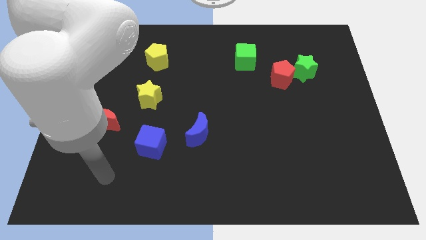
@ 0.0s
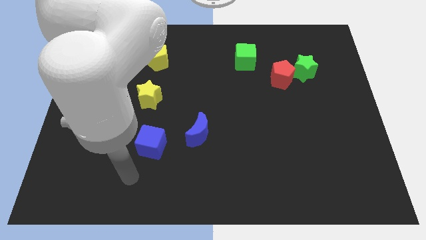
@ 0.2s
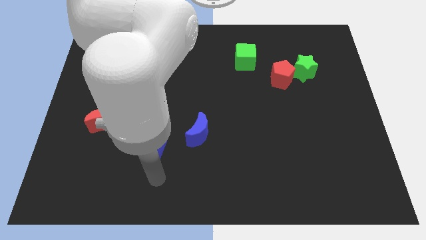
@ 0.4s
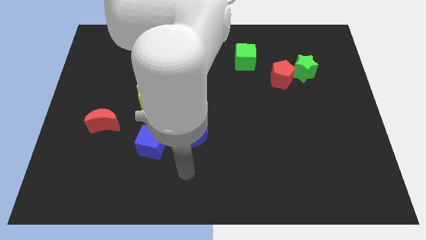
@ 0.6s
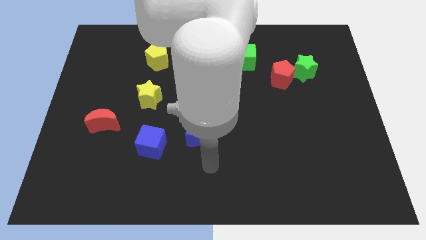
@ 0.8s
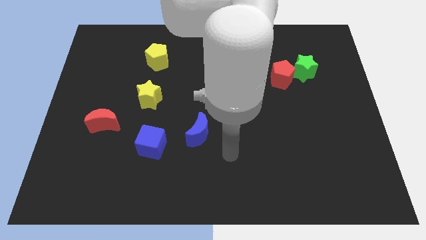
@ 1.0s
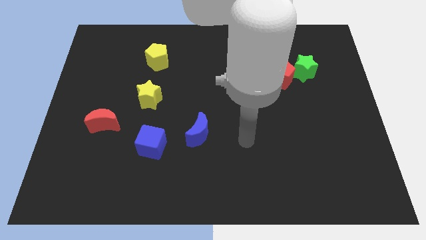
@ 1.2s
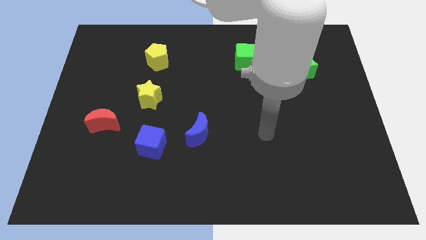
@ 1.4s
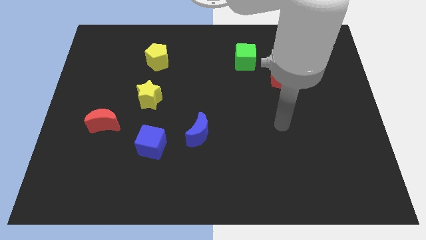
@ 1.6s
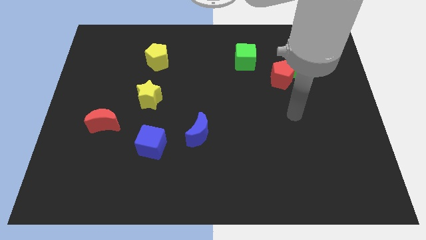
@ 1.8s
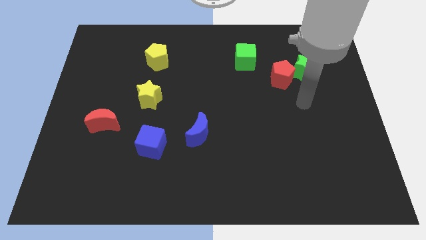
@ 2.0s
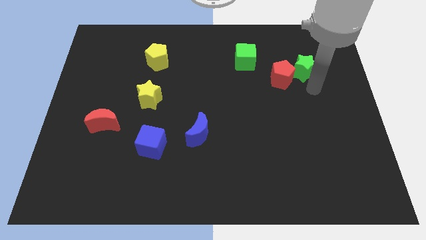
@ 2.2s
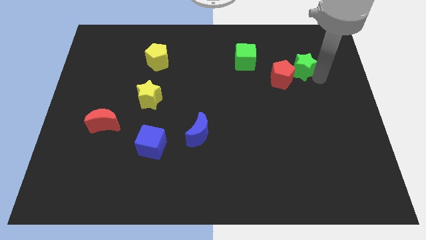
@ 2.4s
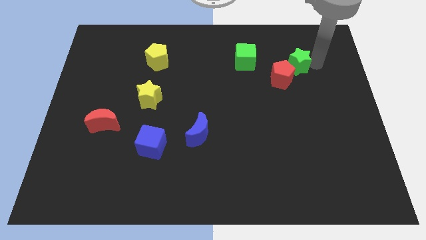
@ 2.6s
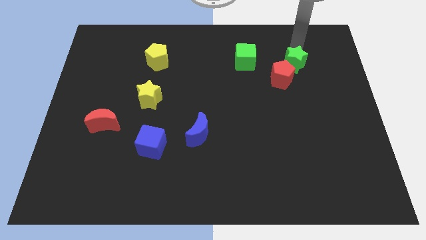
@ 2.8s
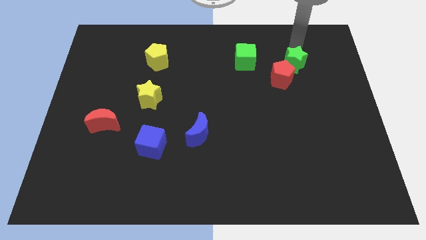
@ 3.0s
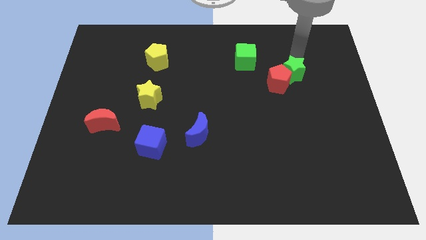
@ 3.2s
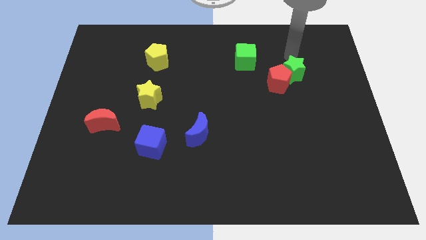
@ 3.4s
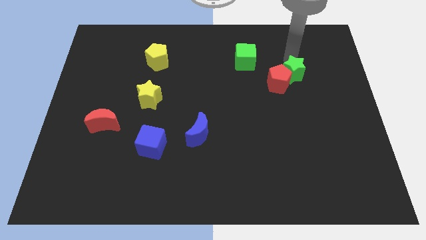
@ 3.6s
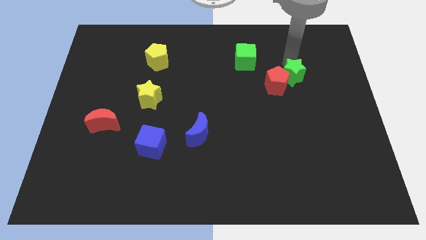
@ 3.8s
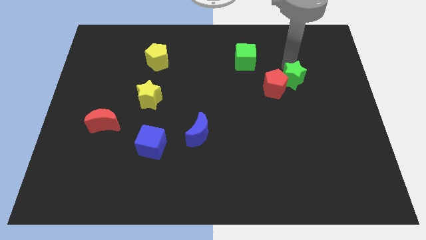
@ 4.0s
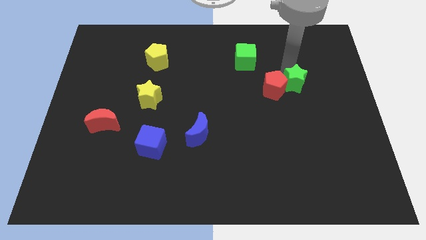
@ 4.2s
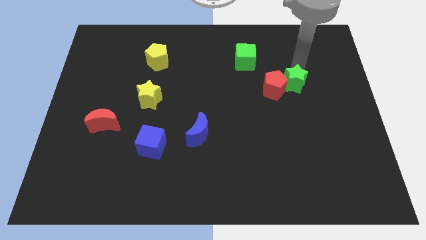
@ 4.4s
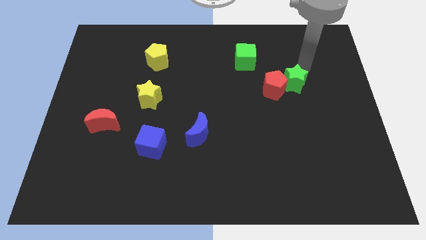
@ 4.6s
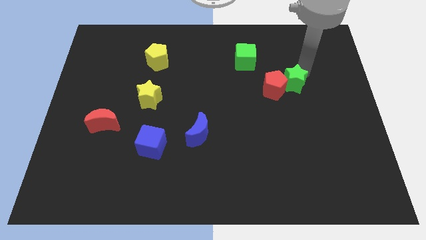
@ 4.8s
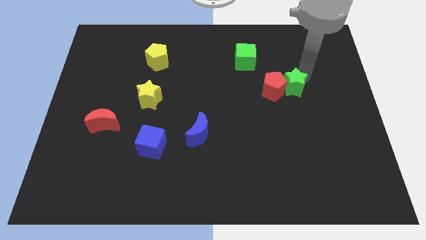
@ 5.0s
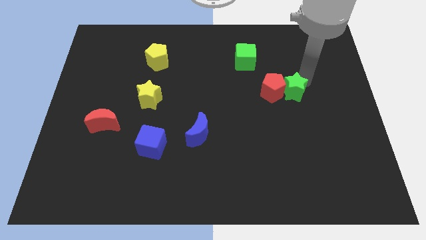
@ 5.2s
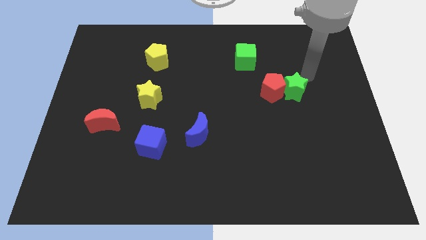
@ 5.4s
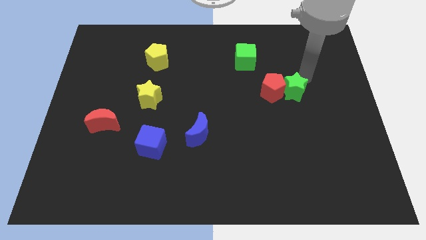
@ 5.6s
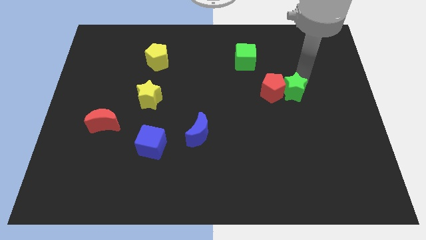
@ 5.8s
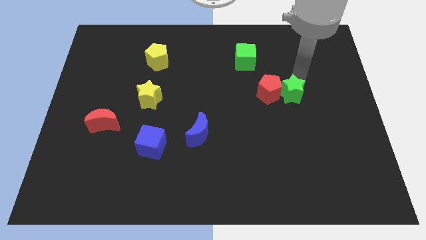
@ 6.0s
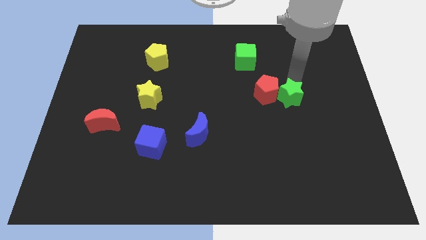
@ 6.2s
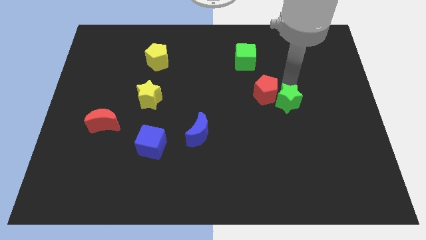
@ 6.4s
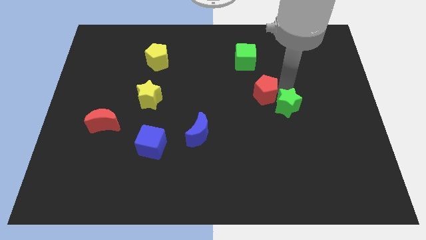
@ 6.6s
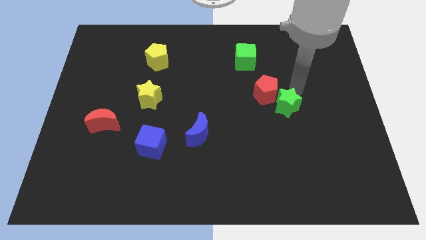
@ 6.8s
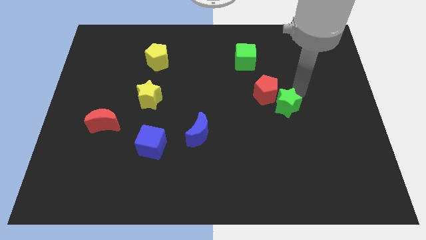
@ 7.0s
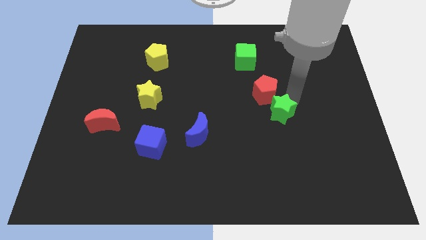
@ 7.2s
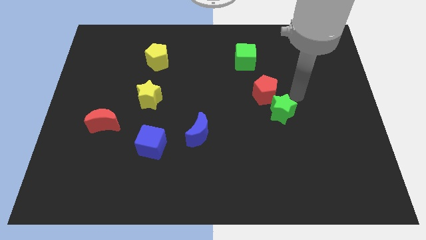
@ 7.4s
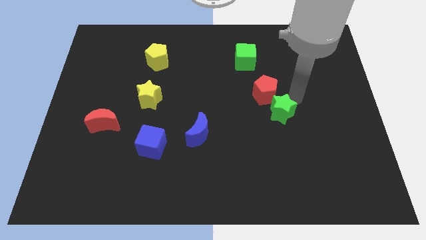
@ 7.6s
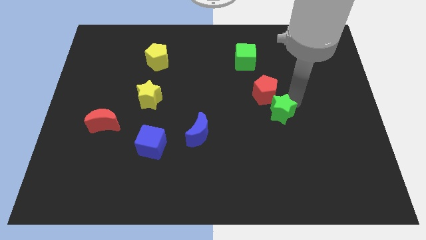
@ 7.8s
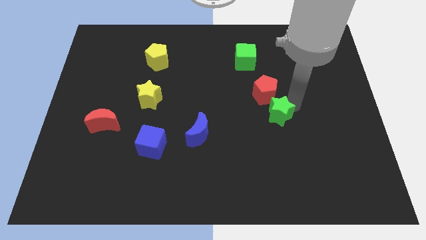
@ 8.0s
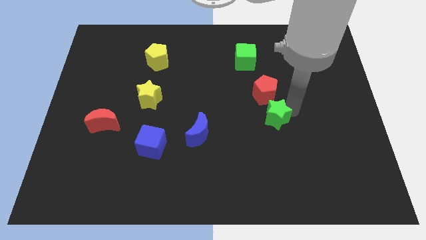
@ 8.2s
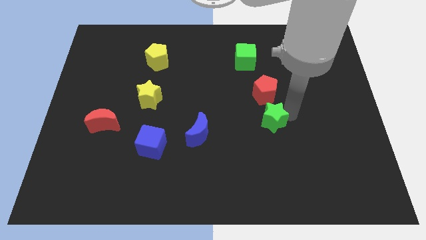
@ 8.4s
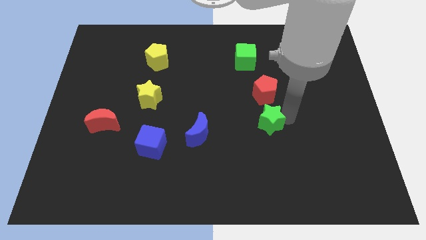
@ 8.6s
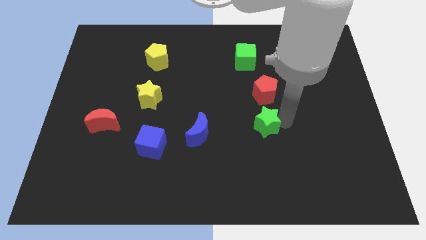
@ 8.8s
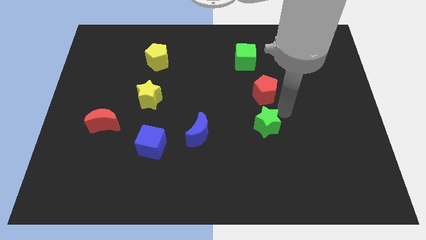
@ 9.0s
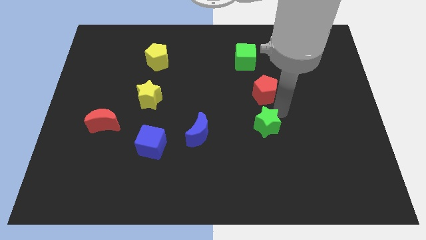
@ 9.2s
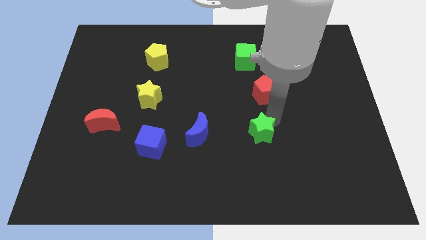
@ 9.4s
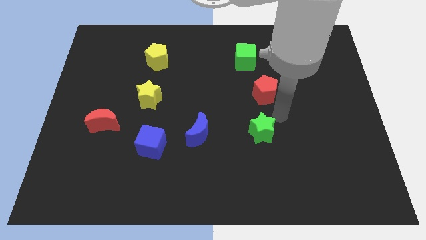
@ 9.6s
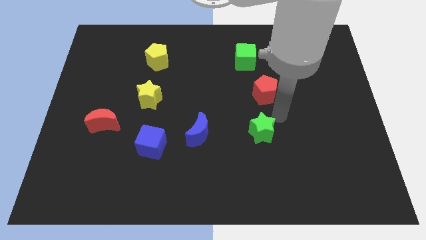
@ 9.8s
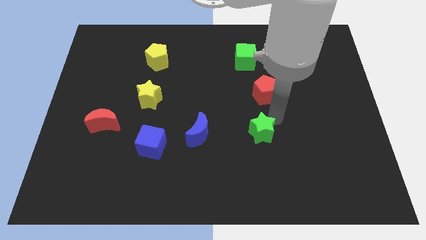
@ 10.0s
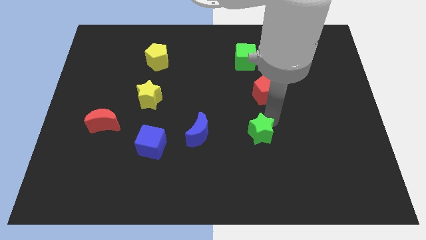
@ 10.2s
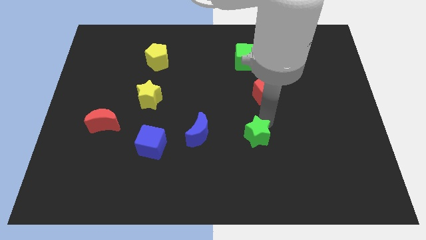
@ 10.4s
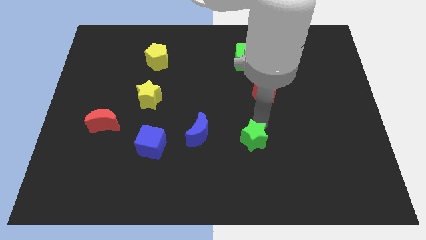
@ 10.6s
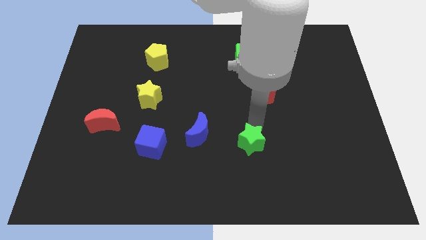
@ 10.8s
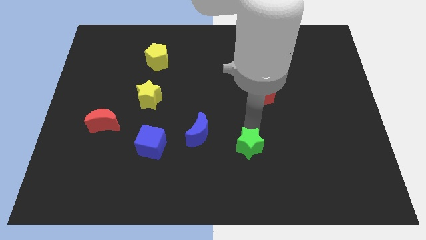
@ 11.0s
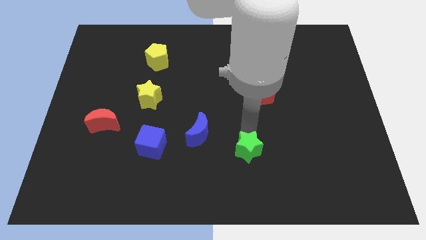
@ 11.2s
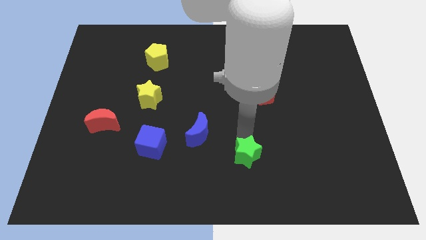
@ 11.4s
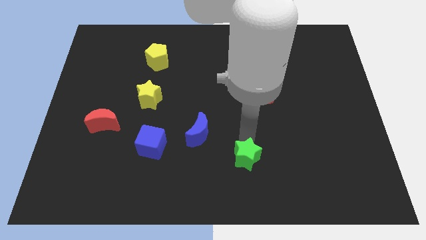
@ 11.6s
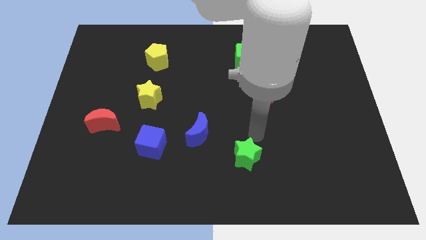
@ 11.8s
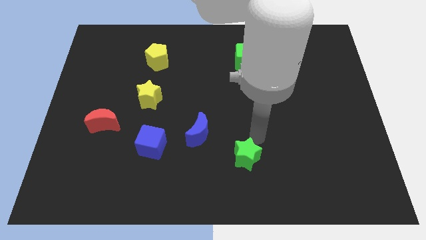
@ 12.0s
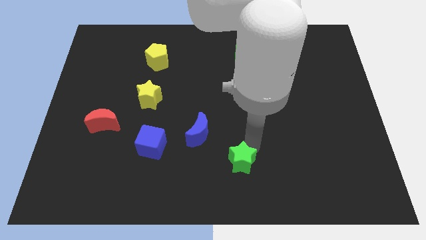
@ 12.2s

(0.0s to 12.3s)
move the green star to the bottom

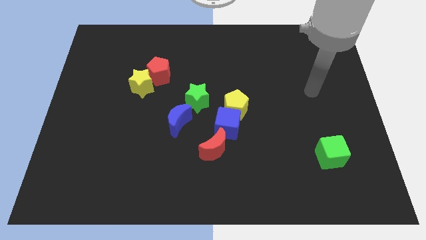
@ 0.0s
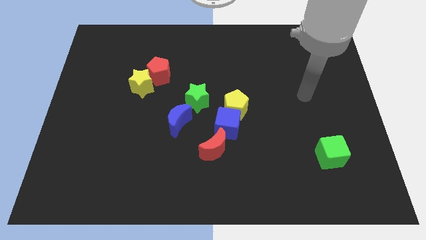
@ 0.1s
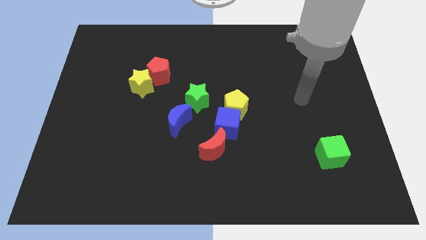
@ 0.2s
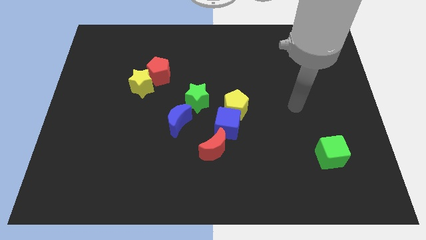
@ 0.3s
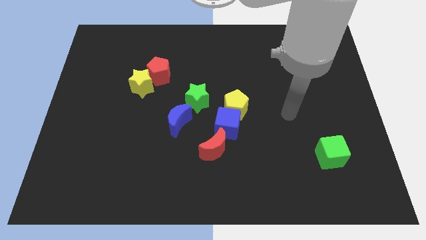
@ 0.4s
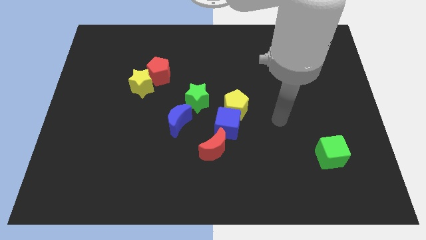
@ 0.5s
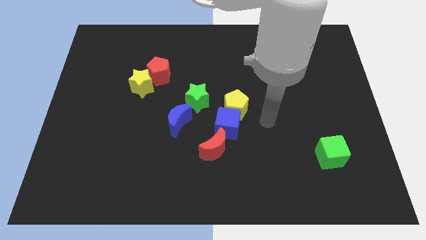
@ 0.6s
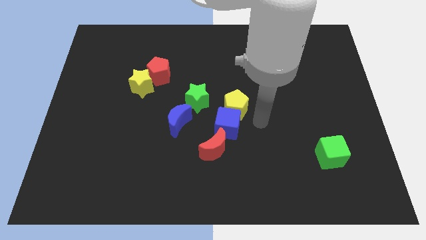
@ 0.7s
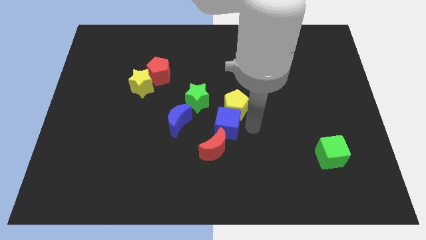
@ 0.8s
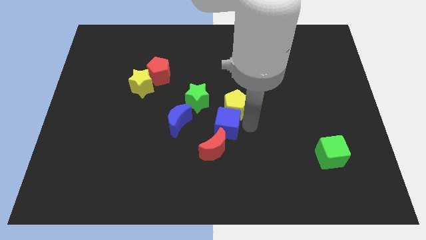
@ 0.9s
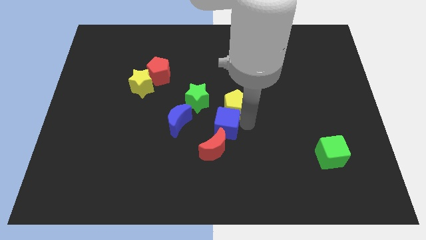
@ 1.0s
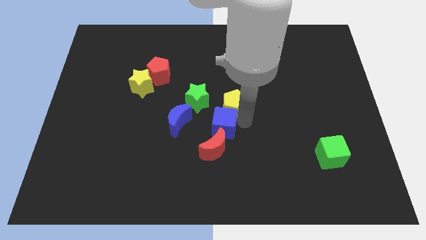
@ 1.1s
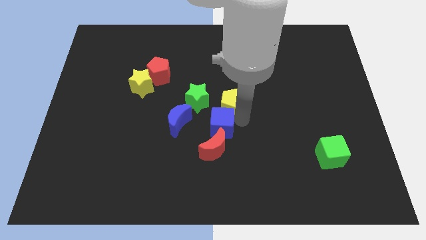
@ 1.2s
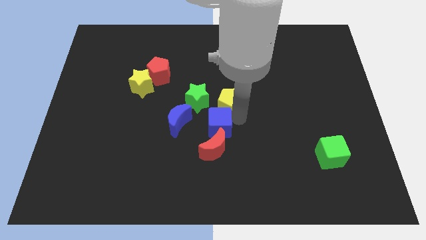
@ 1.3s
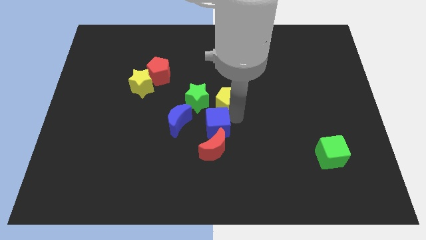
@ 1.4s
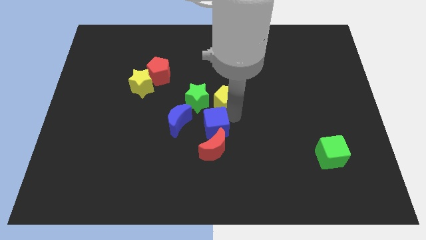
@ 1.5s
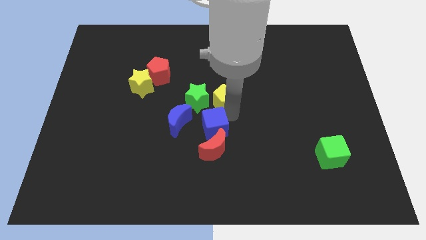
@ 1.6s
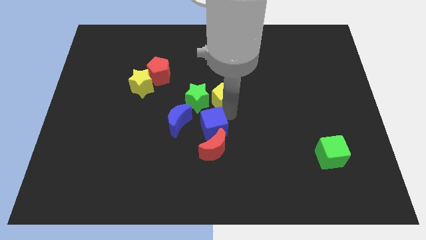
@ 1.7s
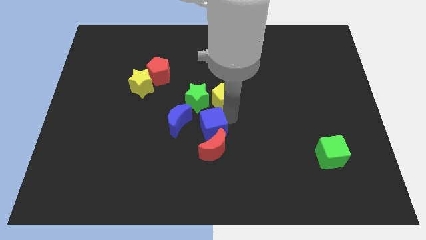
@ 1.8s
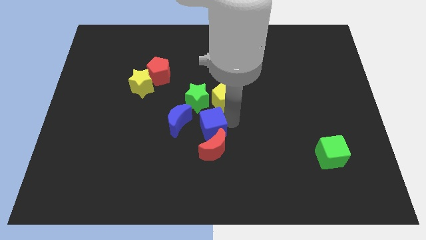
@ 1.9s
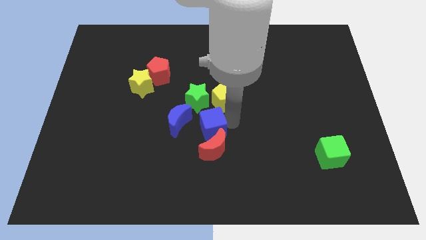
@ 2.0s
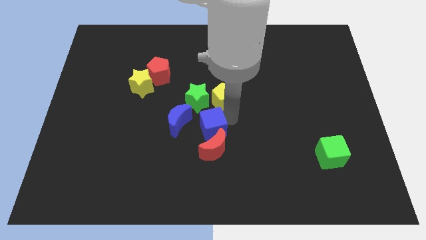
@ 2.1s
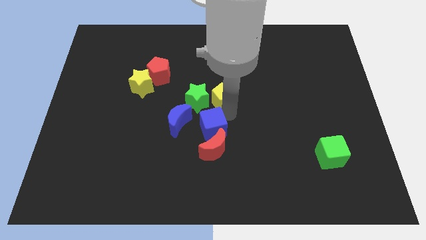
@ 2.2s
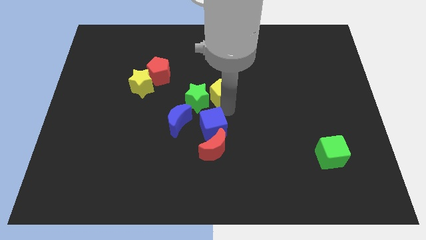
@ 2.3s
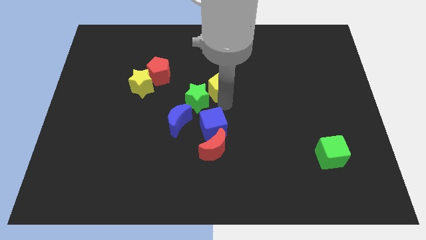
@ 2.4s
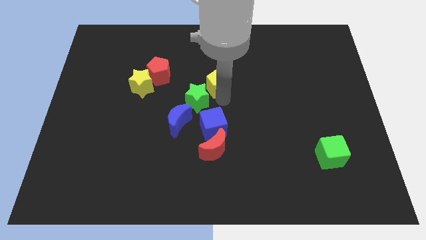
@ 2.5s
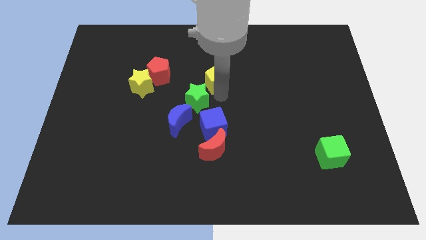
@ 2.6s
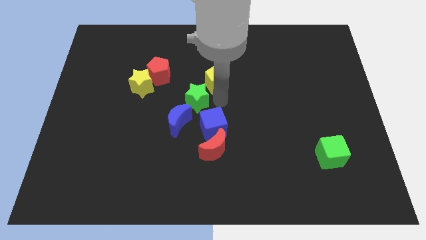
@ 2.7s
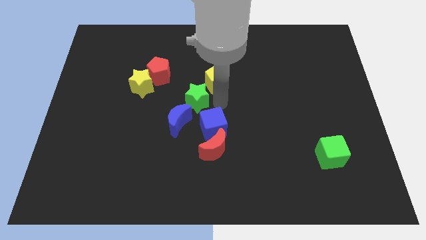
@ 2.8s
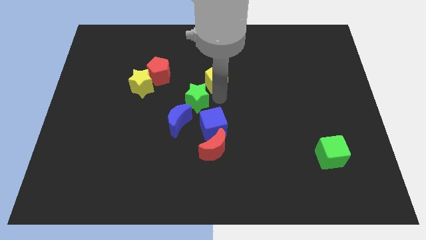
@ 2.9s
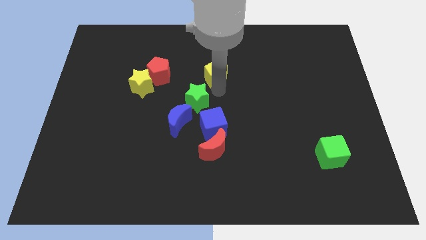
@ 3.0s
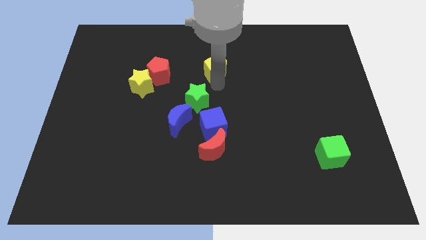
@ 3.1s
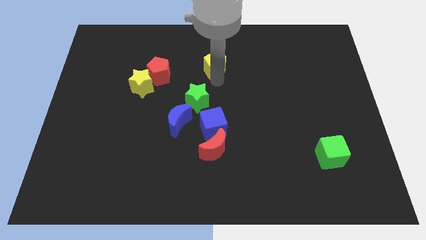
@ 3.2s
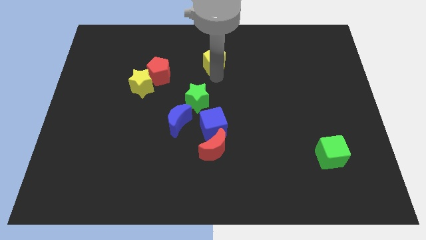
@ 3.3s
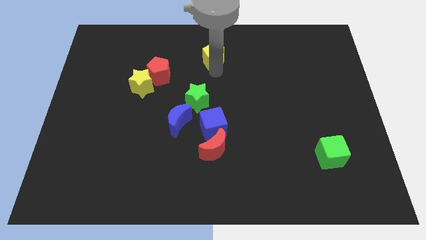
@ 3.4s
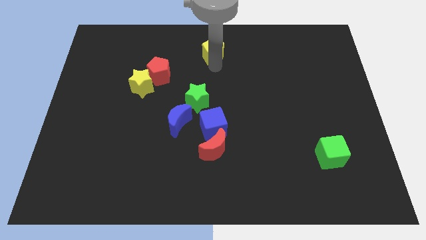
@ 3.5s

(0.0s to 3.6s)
put the yellow pentagon to the top side
